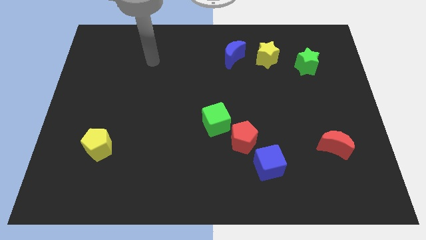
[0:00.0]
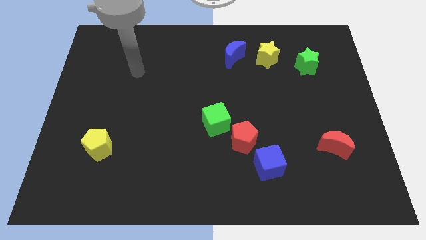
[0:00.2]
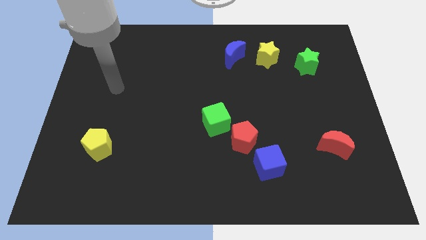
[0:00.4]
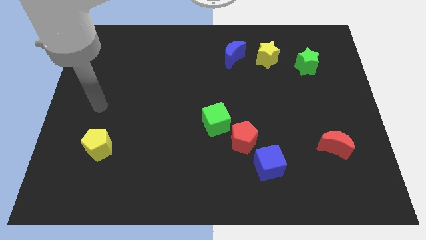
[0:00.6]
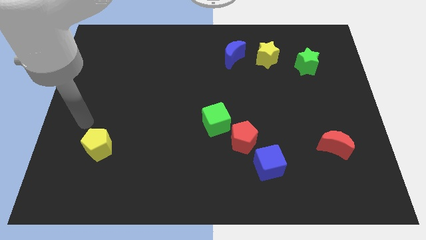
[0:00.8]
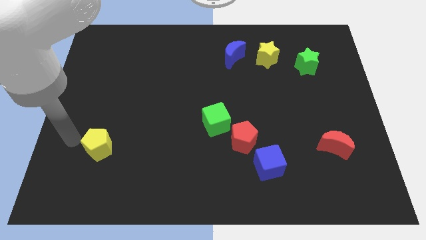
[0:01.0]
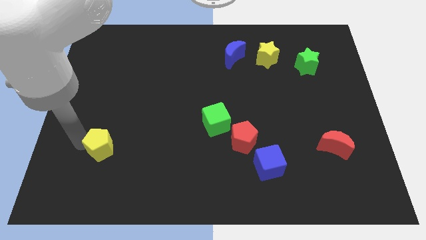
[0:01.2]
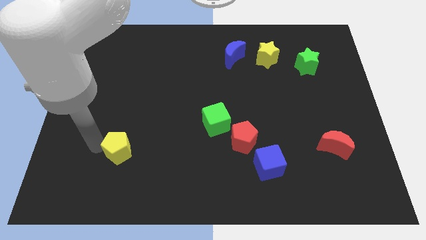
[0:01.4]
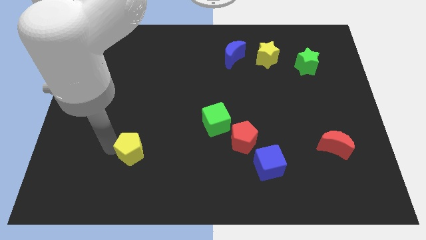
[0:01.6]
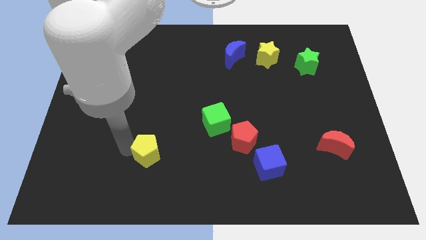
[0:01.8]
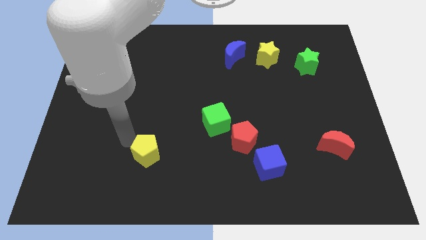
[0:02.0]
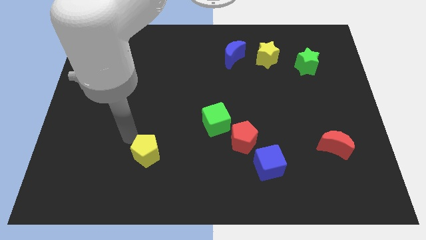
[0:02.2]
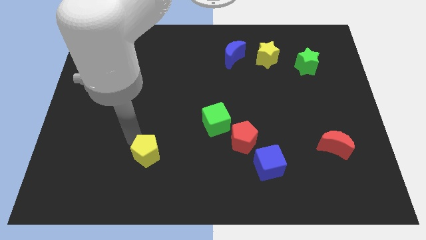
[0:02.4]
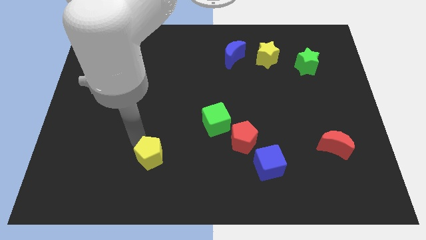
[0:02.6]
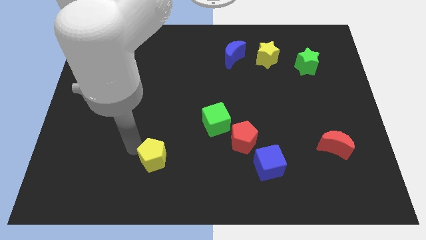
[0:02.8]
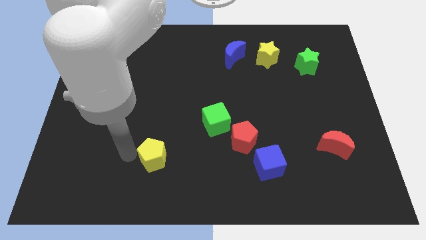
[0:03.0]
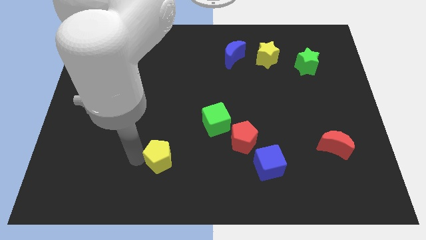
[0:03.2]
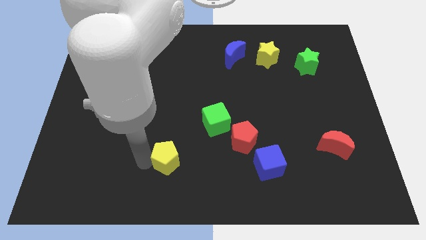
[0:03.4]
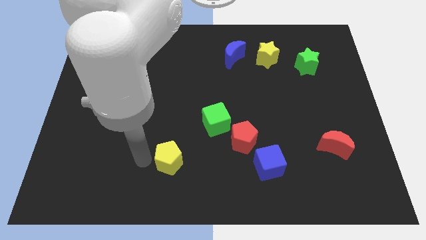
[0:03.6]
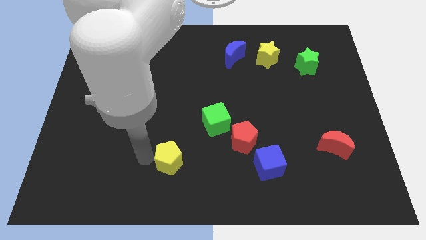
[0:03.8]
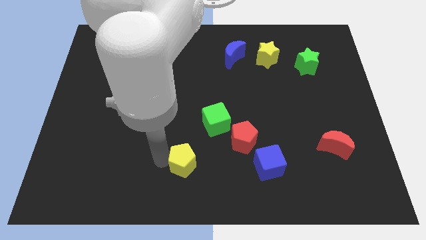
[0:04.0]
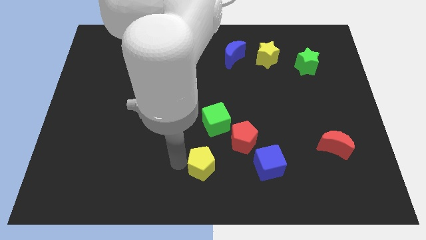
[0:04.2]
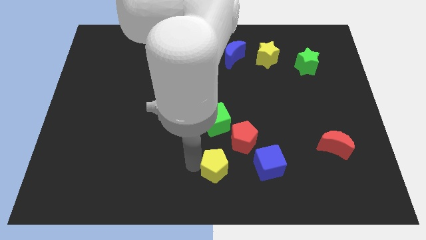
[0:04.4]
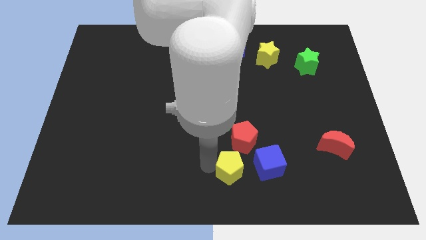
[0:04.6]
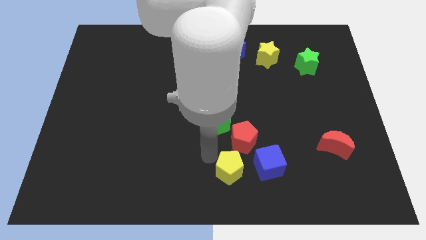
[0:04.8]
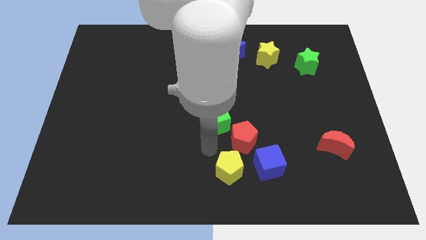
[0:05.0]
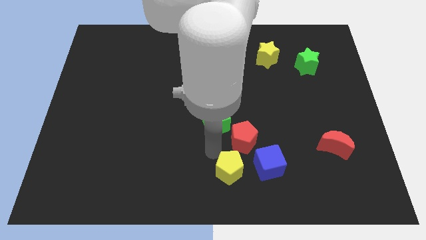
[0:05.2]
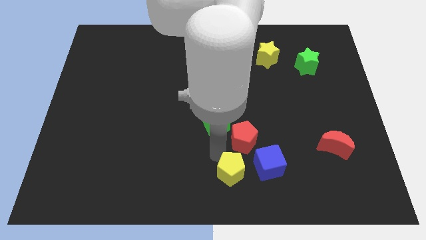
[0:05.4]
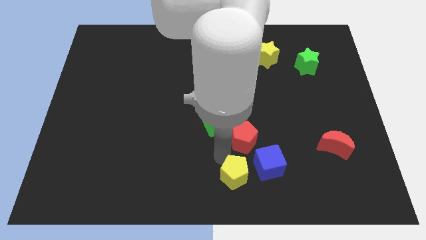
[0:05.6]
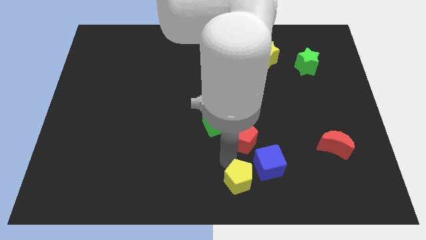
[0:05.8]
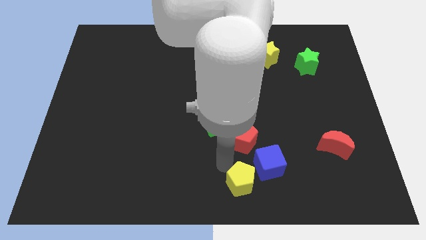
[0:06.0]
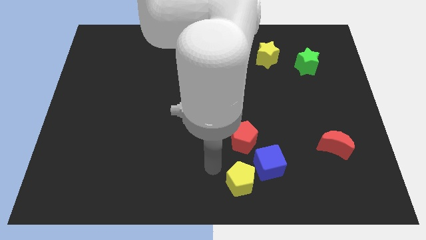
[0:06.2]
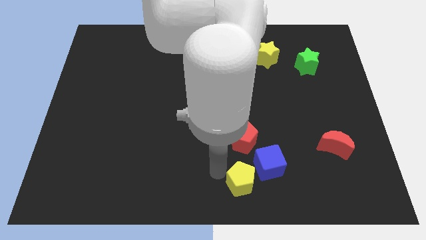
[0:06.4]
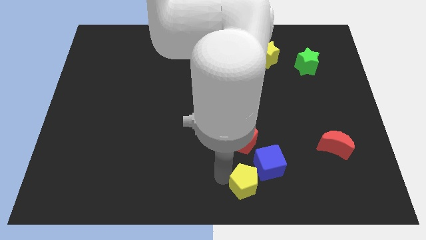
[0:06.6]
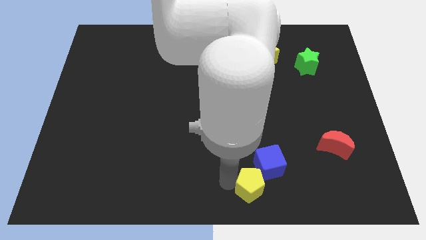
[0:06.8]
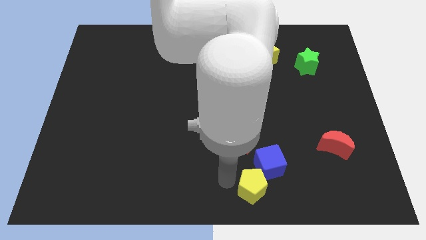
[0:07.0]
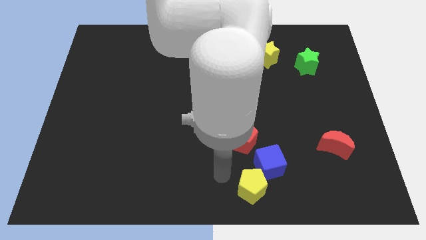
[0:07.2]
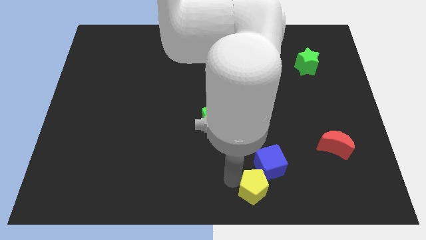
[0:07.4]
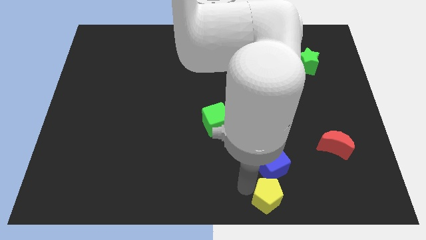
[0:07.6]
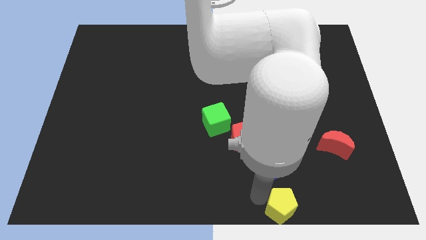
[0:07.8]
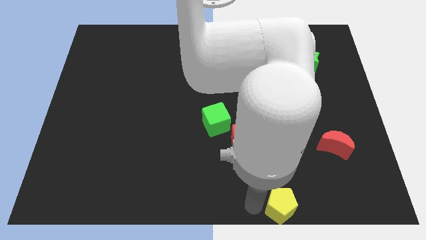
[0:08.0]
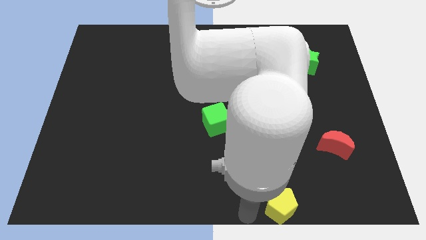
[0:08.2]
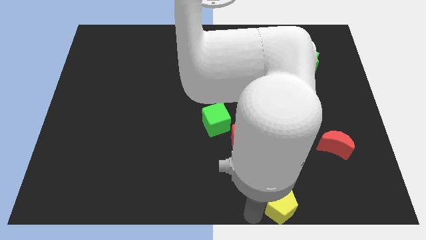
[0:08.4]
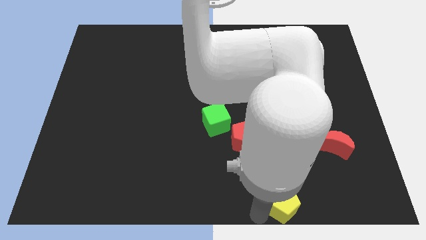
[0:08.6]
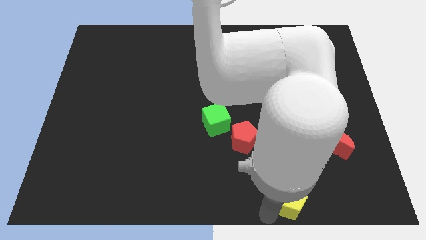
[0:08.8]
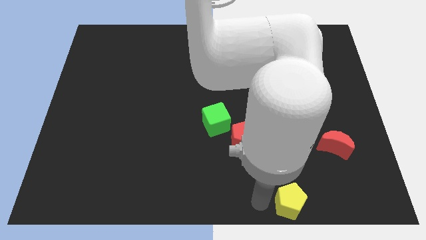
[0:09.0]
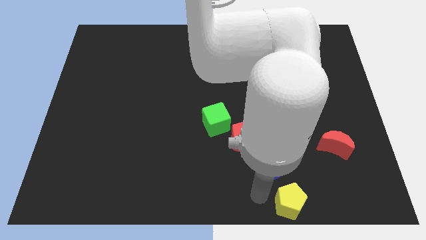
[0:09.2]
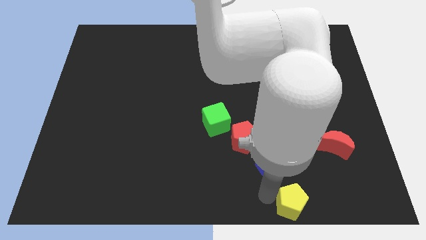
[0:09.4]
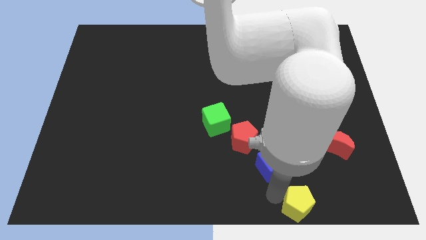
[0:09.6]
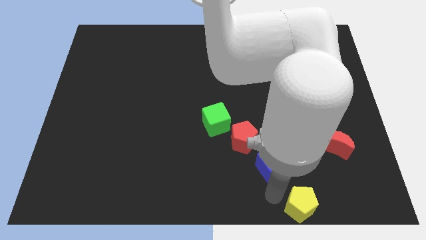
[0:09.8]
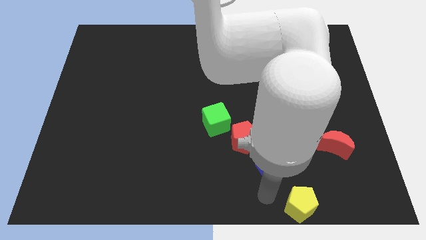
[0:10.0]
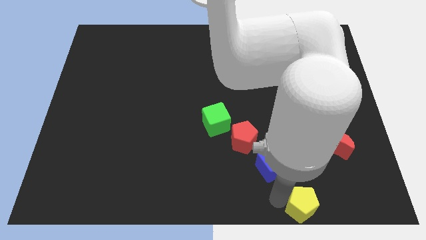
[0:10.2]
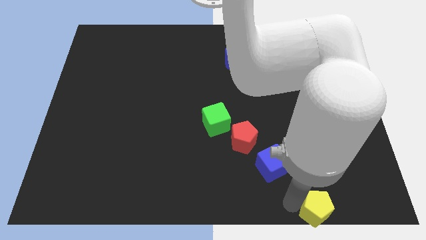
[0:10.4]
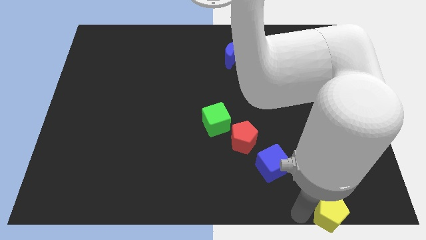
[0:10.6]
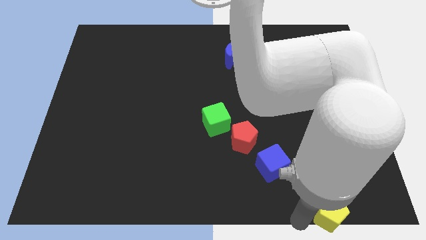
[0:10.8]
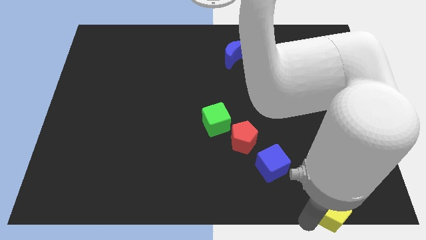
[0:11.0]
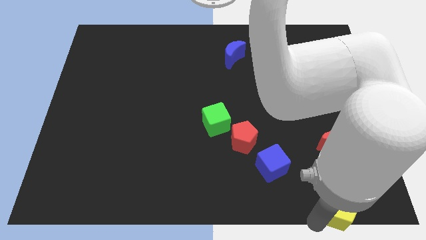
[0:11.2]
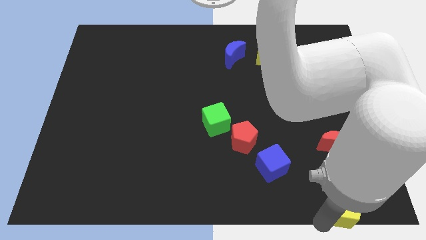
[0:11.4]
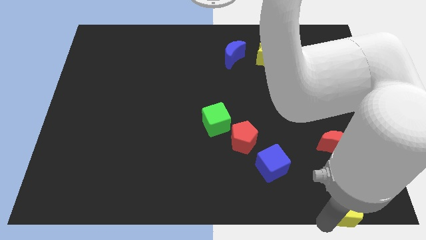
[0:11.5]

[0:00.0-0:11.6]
push the yellow pentagon to the bottom right of the board
